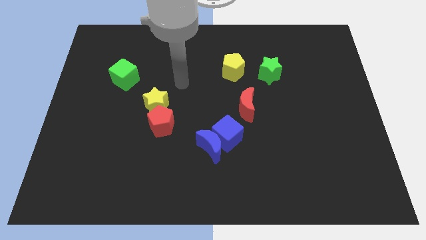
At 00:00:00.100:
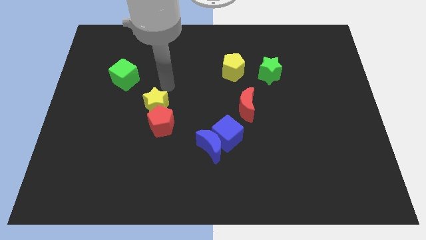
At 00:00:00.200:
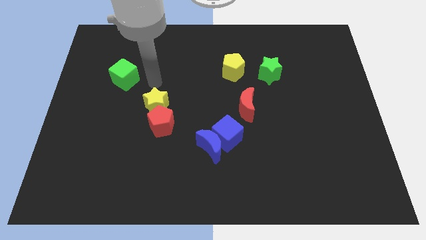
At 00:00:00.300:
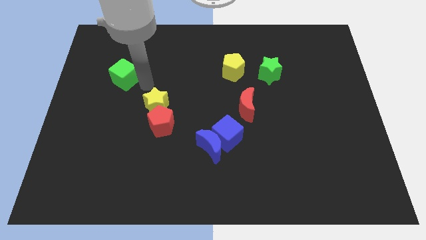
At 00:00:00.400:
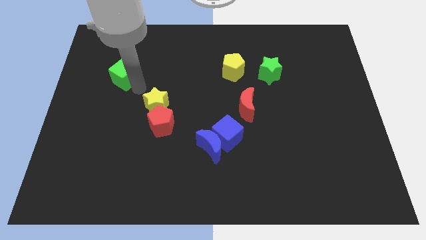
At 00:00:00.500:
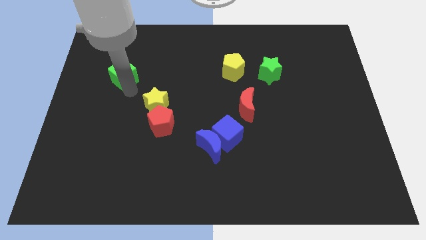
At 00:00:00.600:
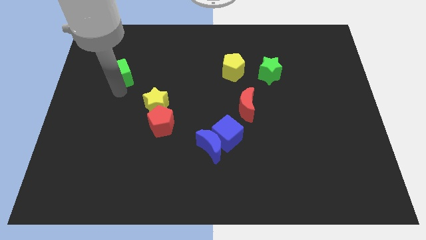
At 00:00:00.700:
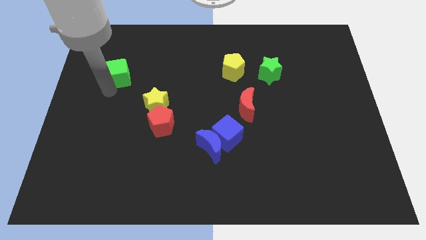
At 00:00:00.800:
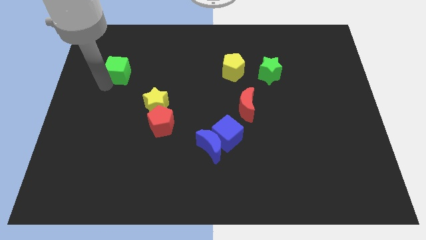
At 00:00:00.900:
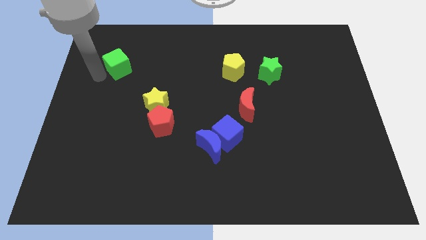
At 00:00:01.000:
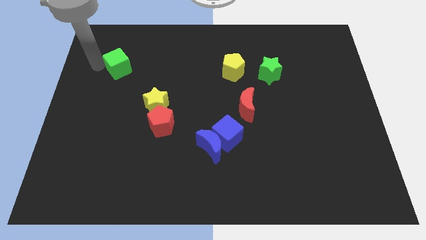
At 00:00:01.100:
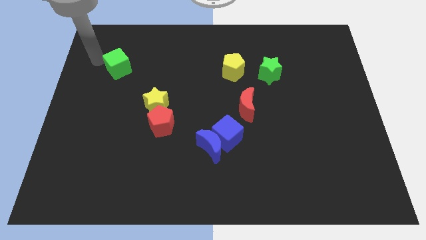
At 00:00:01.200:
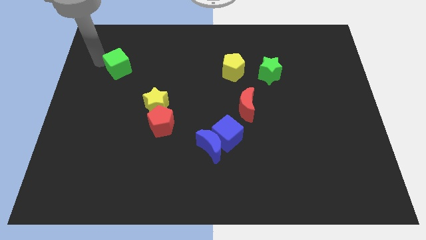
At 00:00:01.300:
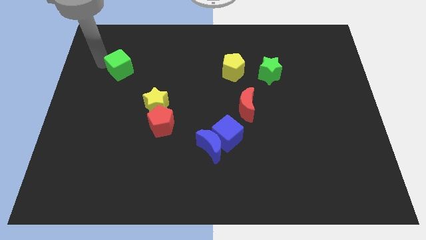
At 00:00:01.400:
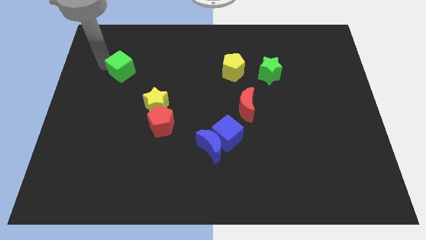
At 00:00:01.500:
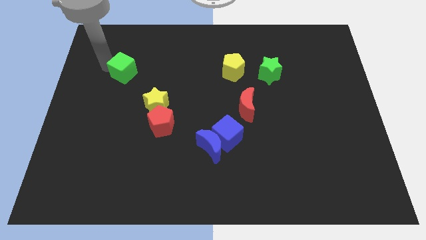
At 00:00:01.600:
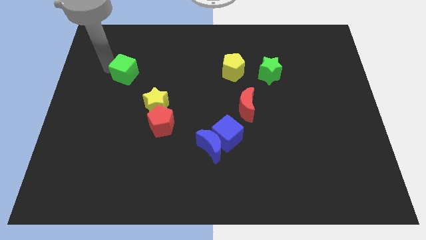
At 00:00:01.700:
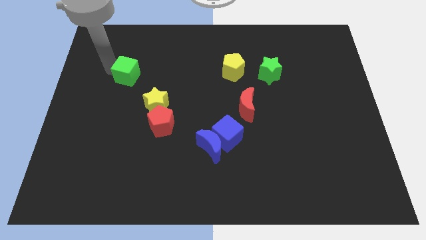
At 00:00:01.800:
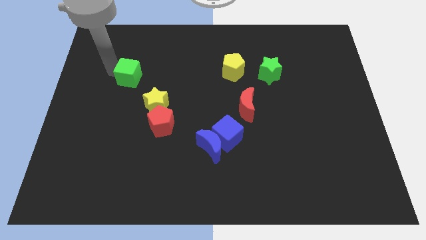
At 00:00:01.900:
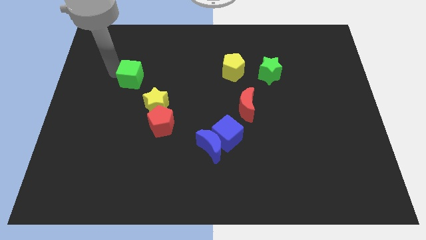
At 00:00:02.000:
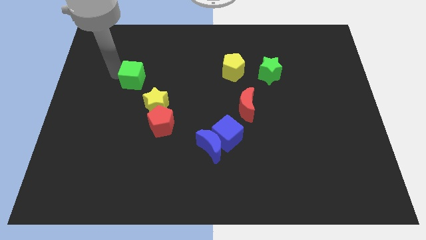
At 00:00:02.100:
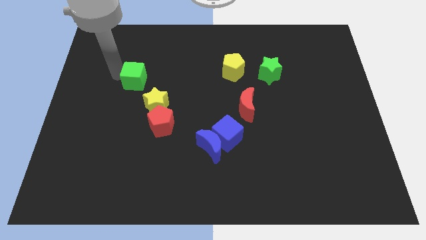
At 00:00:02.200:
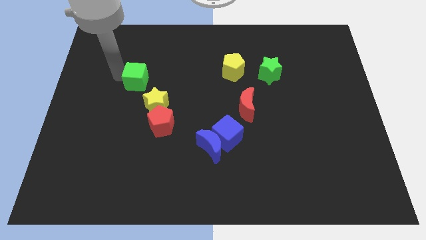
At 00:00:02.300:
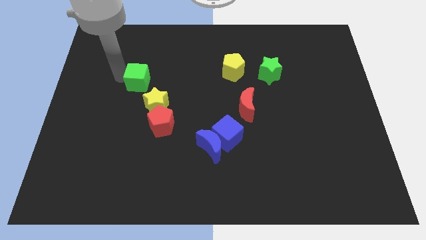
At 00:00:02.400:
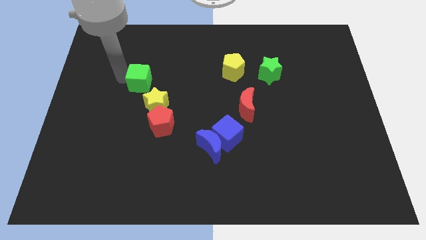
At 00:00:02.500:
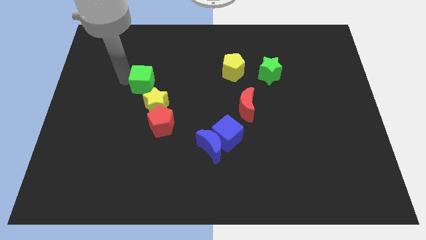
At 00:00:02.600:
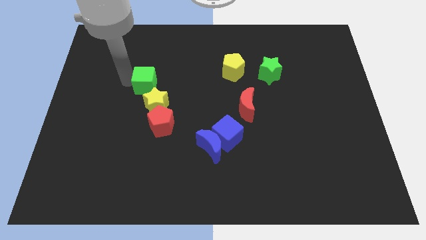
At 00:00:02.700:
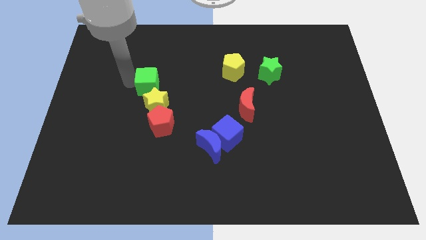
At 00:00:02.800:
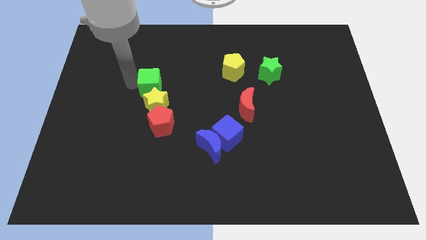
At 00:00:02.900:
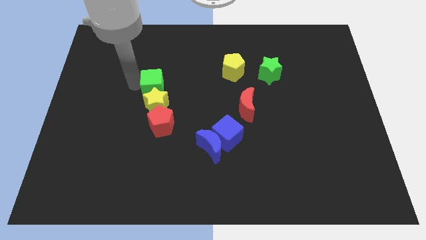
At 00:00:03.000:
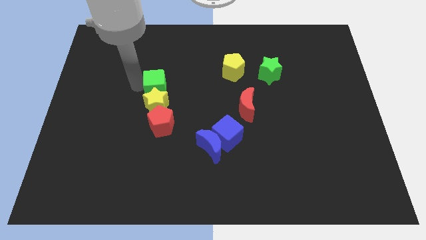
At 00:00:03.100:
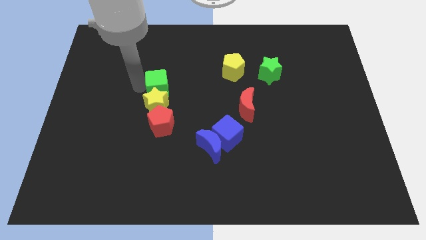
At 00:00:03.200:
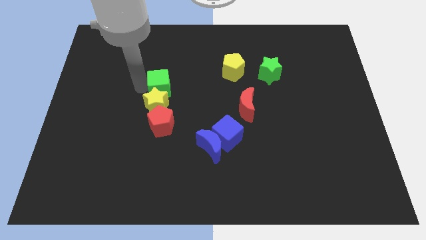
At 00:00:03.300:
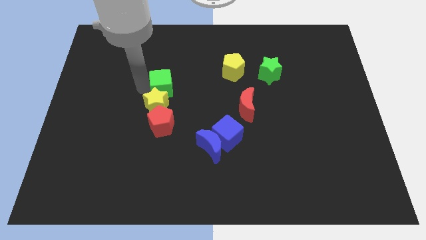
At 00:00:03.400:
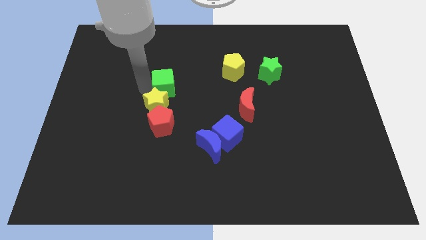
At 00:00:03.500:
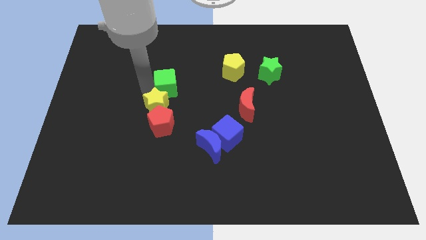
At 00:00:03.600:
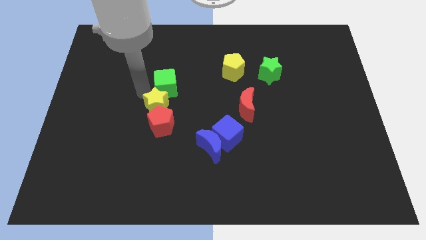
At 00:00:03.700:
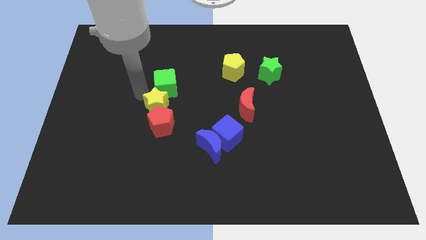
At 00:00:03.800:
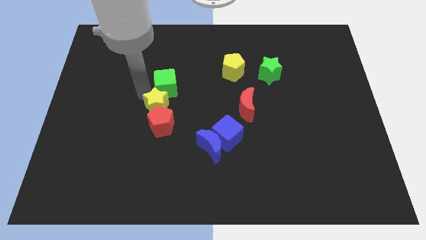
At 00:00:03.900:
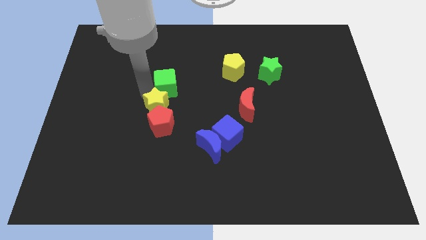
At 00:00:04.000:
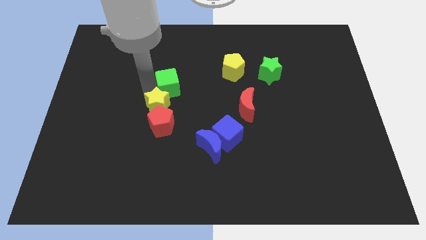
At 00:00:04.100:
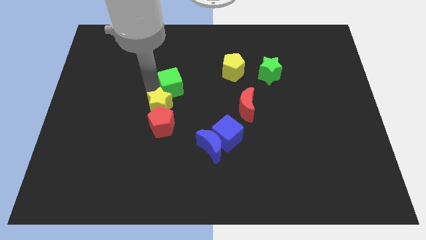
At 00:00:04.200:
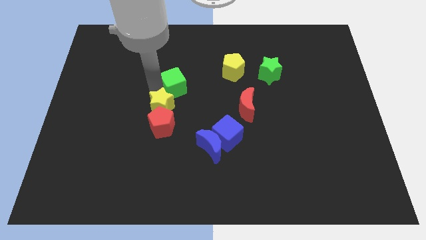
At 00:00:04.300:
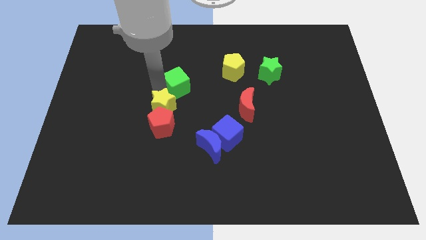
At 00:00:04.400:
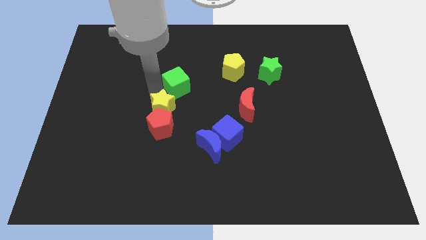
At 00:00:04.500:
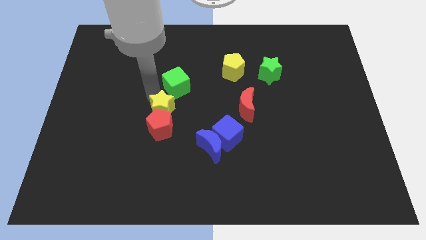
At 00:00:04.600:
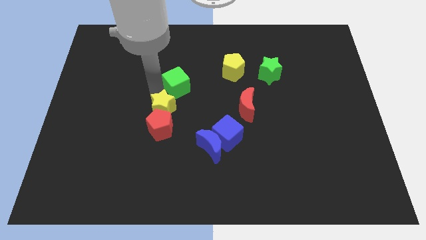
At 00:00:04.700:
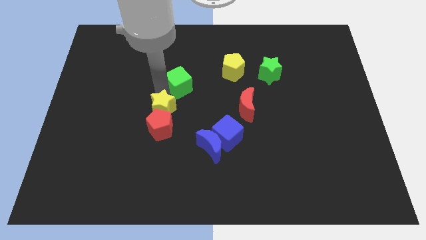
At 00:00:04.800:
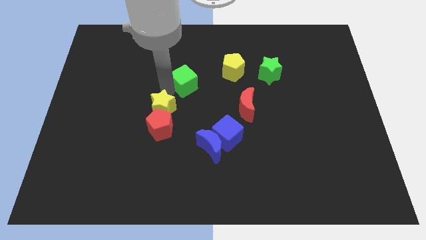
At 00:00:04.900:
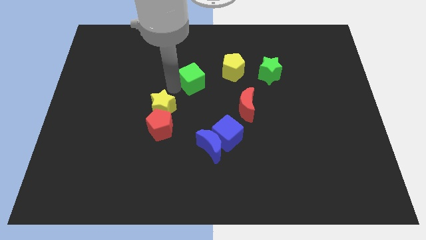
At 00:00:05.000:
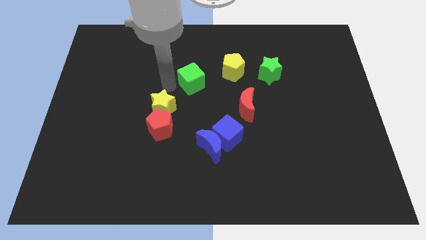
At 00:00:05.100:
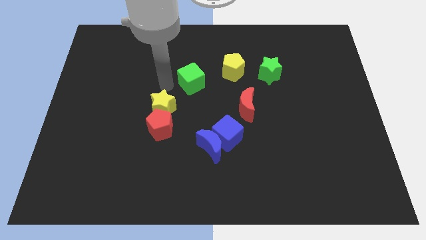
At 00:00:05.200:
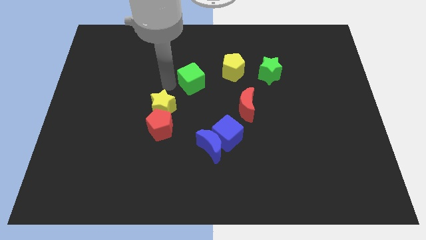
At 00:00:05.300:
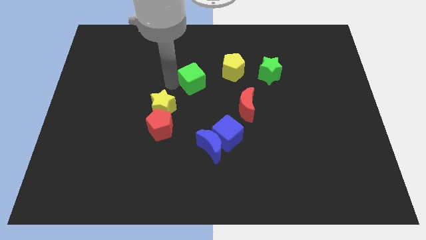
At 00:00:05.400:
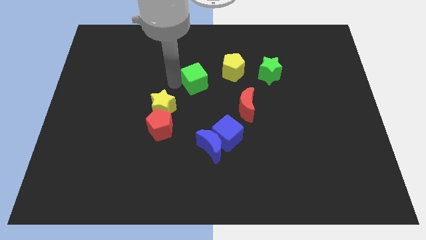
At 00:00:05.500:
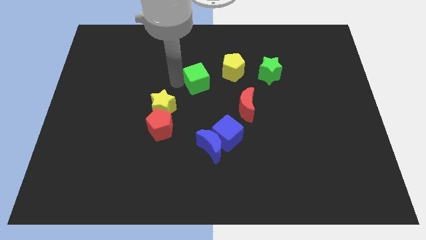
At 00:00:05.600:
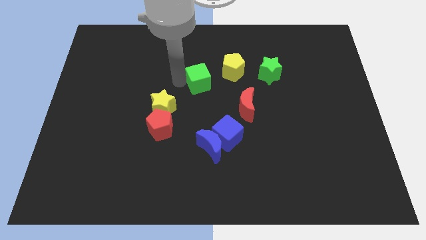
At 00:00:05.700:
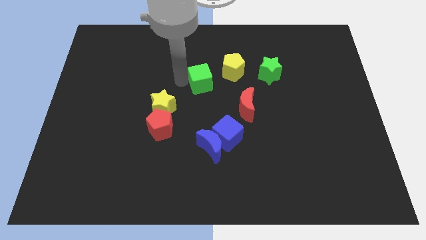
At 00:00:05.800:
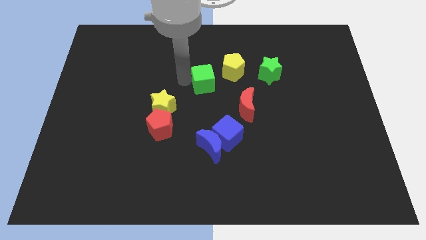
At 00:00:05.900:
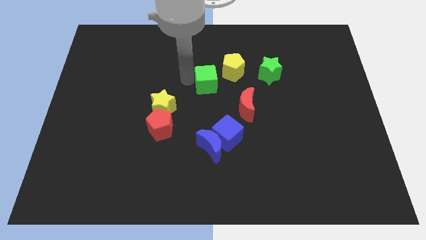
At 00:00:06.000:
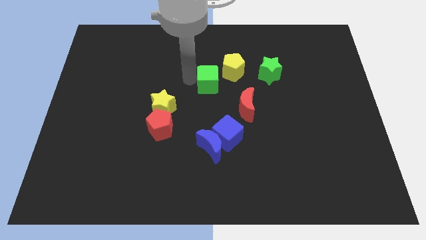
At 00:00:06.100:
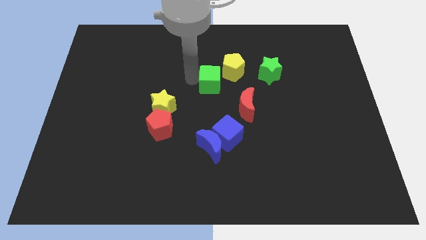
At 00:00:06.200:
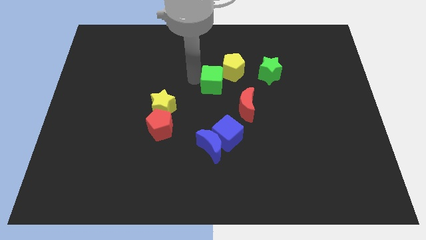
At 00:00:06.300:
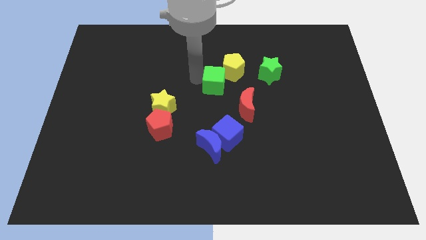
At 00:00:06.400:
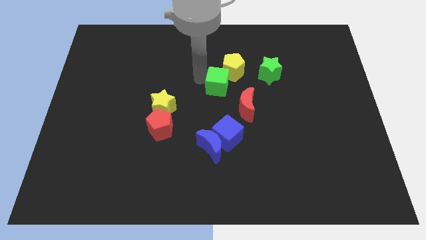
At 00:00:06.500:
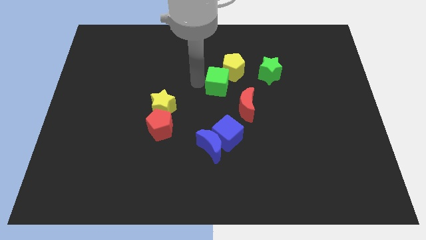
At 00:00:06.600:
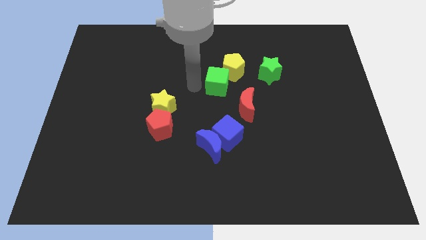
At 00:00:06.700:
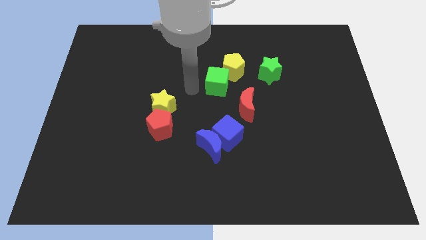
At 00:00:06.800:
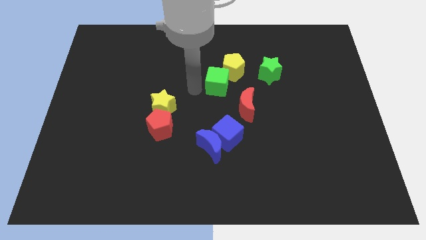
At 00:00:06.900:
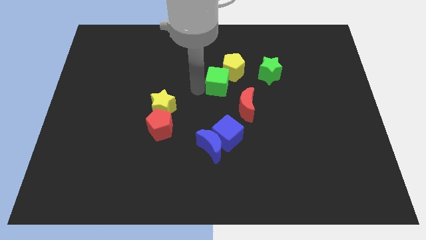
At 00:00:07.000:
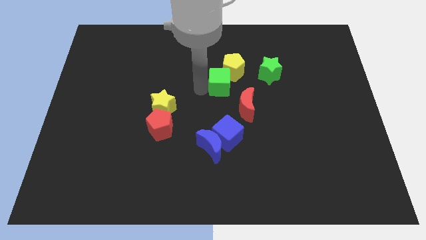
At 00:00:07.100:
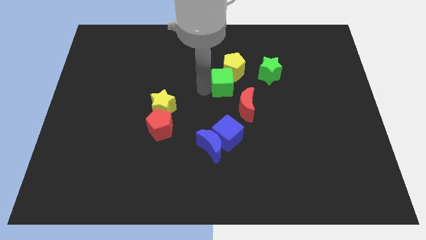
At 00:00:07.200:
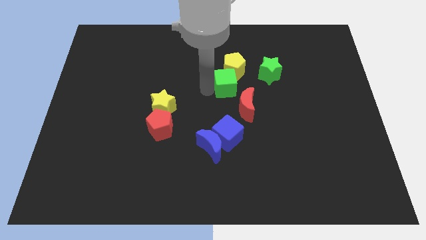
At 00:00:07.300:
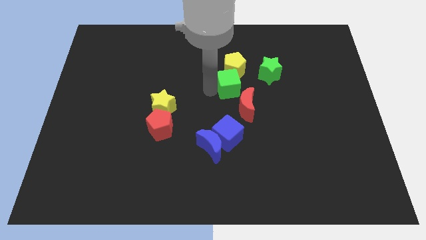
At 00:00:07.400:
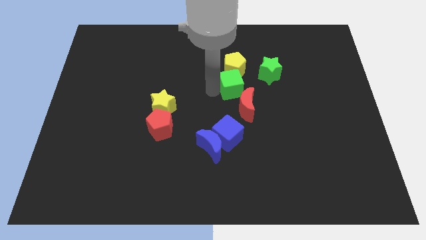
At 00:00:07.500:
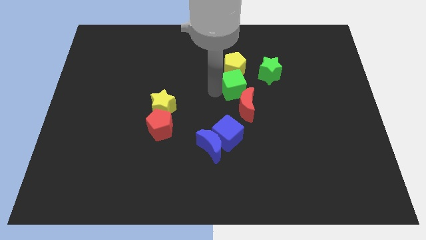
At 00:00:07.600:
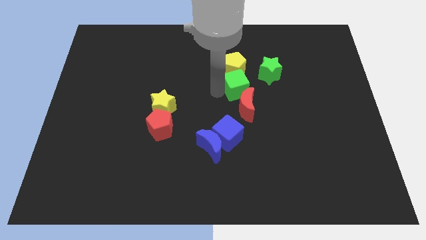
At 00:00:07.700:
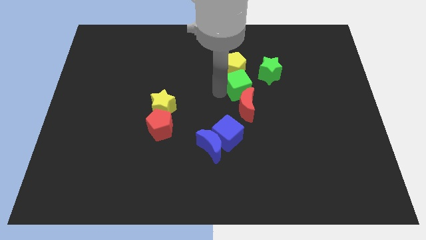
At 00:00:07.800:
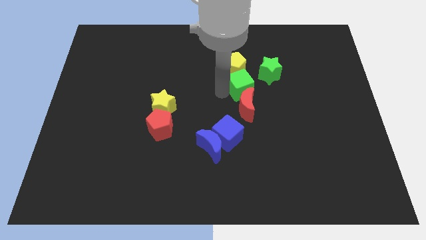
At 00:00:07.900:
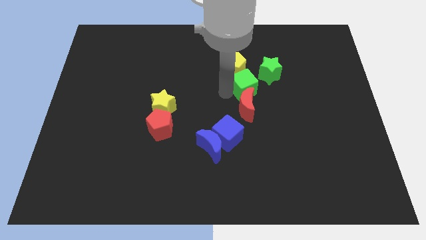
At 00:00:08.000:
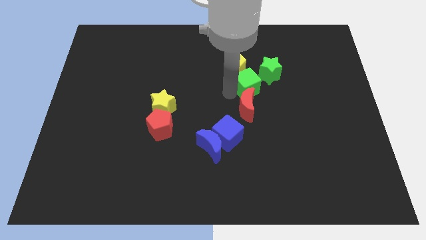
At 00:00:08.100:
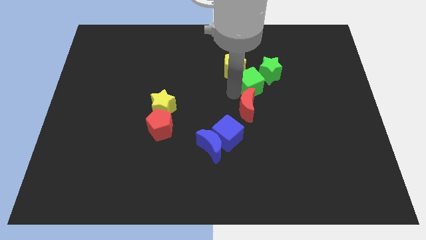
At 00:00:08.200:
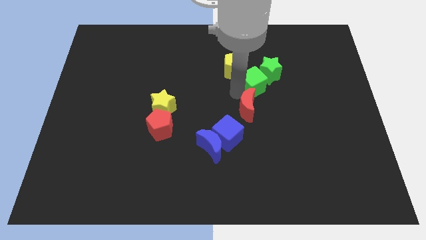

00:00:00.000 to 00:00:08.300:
slide the green cube next to the green star
